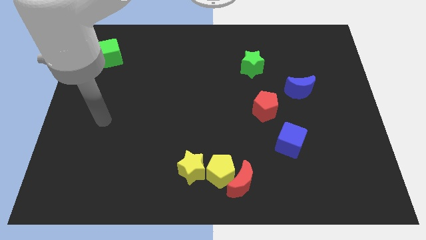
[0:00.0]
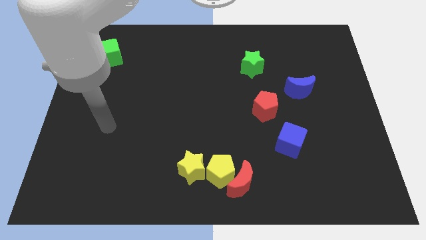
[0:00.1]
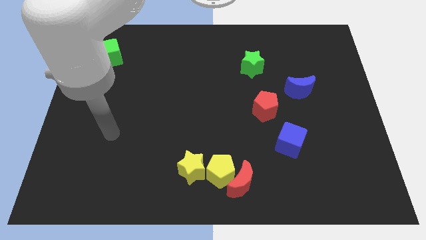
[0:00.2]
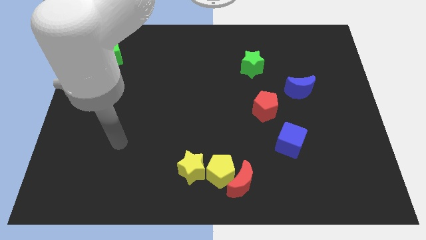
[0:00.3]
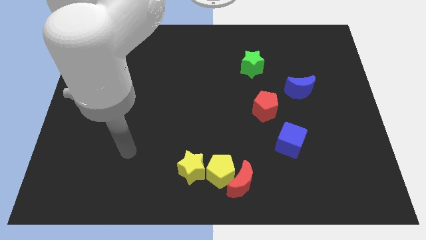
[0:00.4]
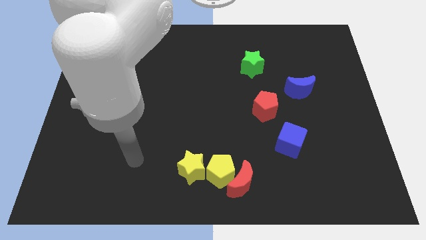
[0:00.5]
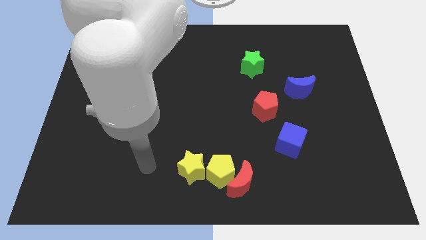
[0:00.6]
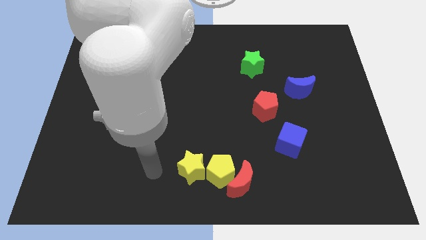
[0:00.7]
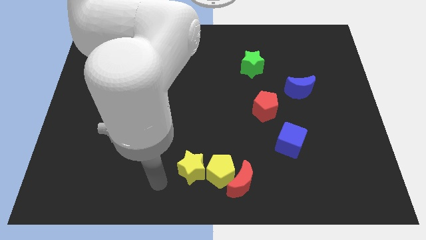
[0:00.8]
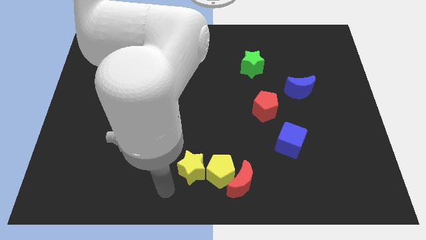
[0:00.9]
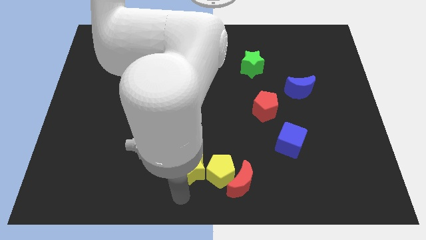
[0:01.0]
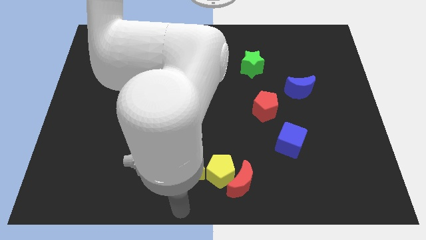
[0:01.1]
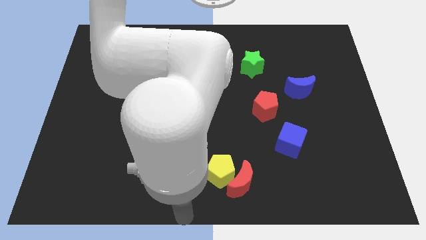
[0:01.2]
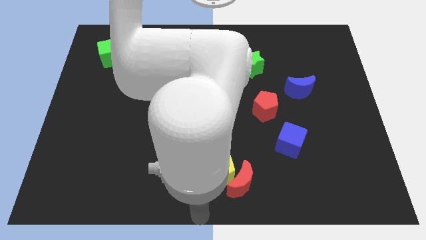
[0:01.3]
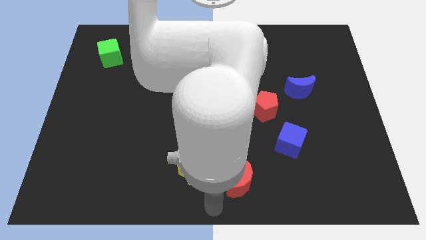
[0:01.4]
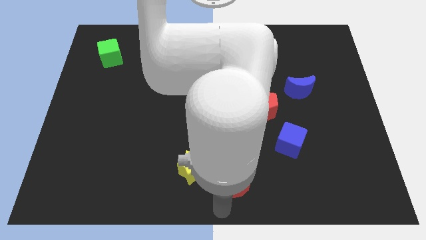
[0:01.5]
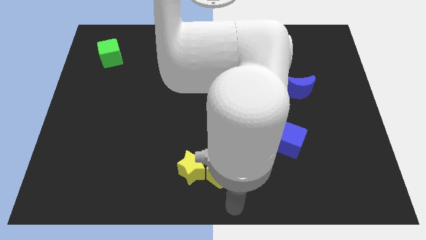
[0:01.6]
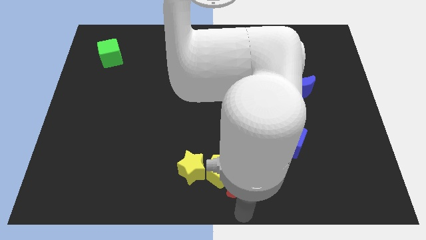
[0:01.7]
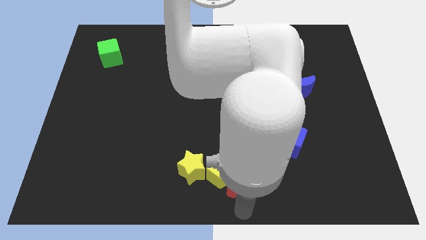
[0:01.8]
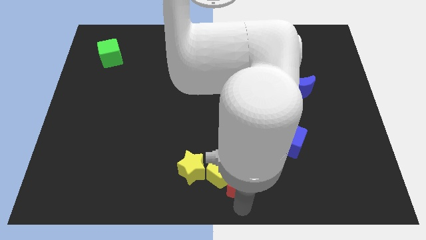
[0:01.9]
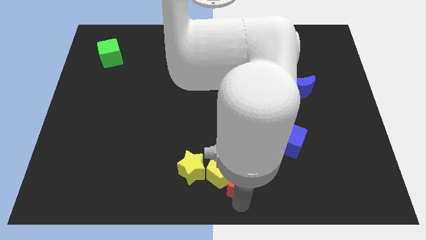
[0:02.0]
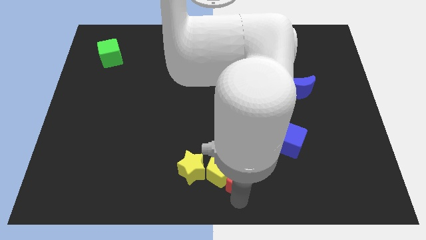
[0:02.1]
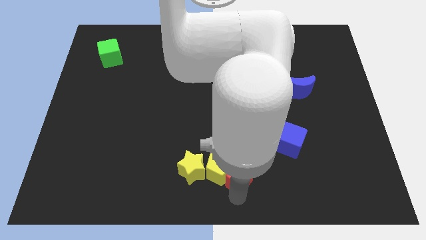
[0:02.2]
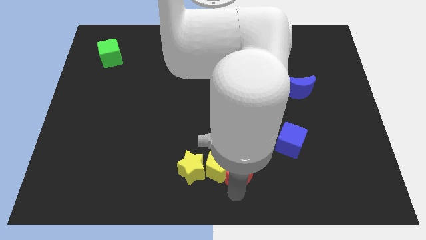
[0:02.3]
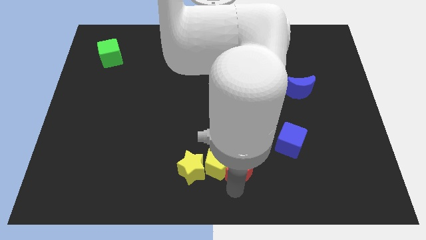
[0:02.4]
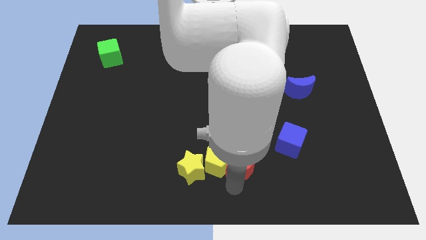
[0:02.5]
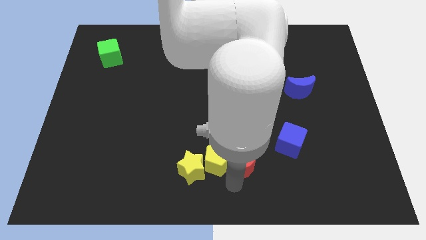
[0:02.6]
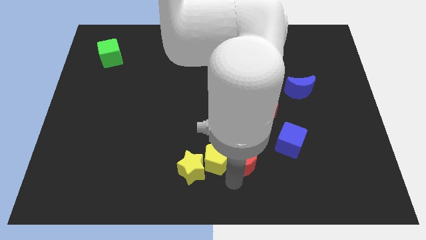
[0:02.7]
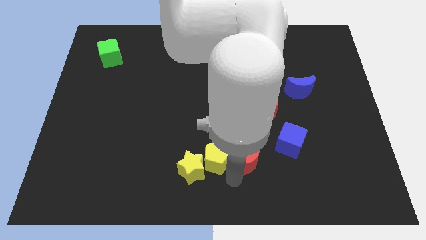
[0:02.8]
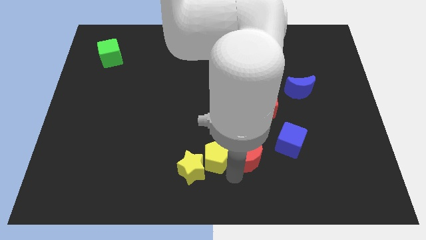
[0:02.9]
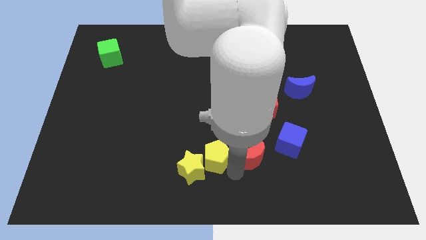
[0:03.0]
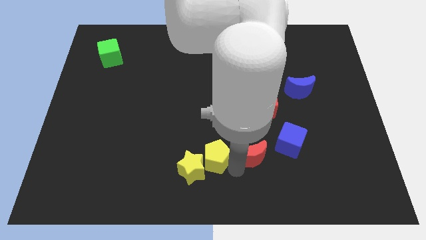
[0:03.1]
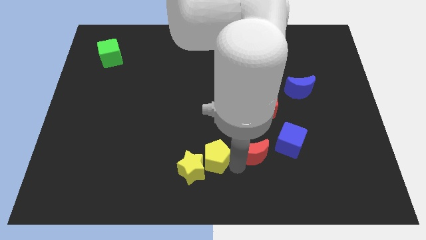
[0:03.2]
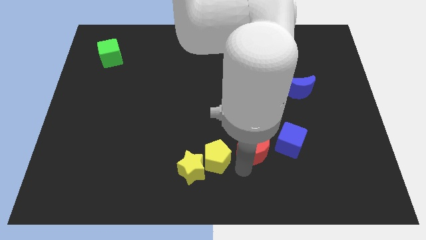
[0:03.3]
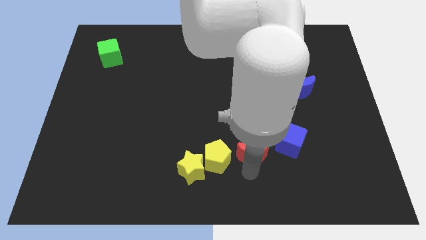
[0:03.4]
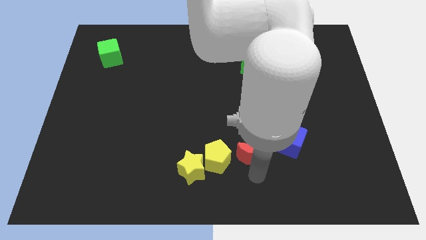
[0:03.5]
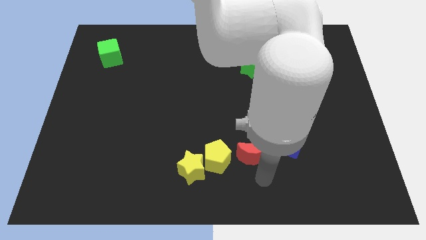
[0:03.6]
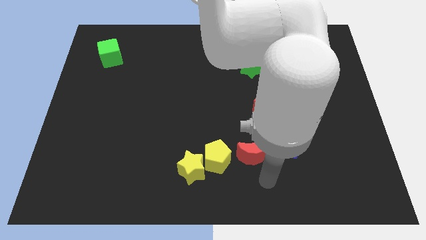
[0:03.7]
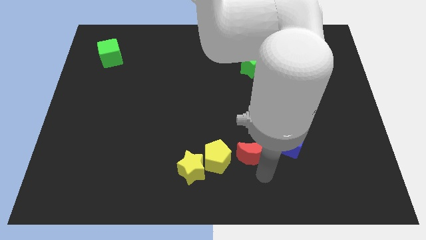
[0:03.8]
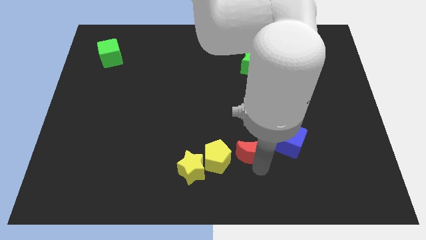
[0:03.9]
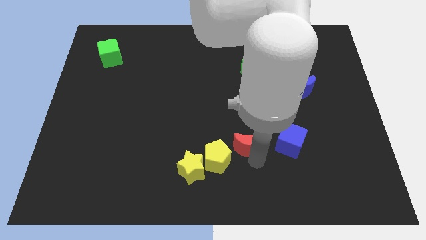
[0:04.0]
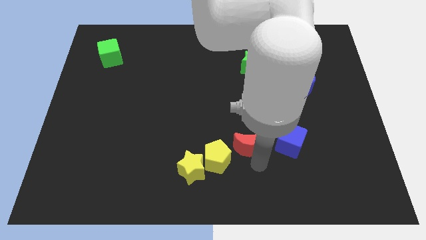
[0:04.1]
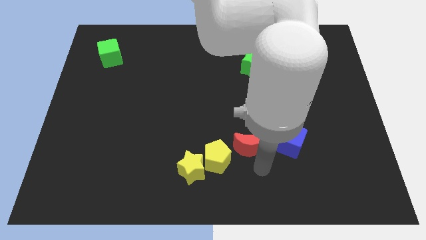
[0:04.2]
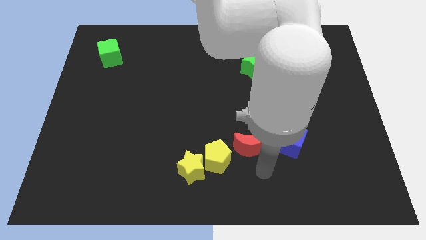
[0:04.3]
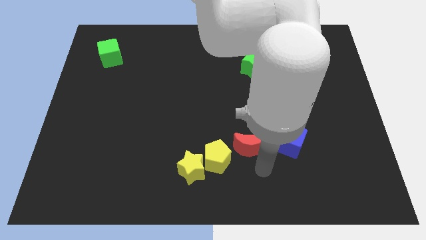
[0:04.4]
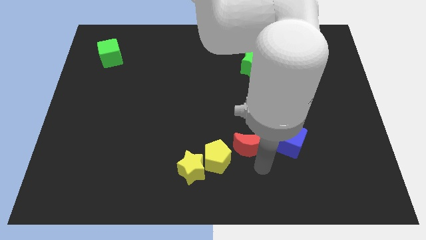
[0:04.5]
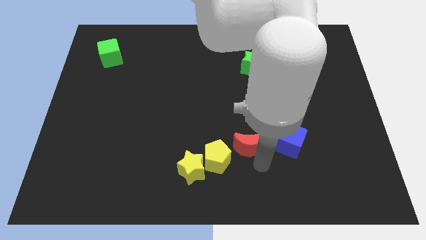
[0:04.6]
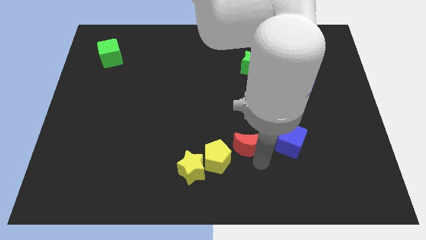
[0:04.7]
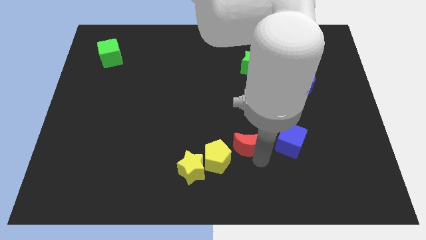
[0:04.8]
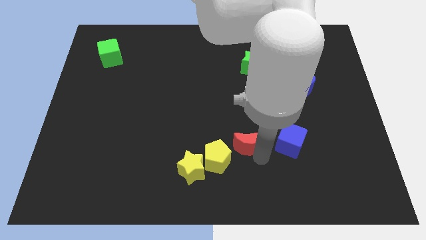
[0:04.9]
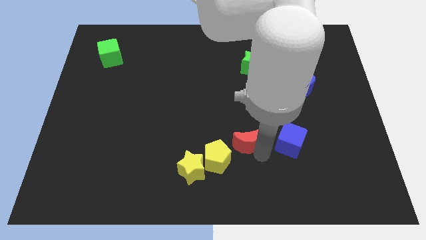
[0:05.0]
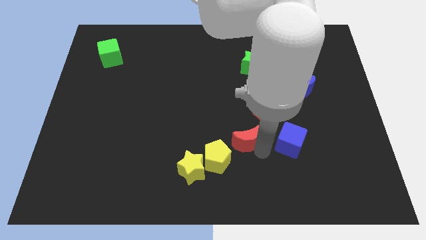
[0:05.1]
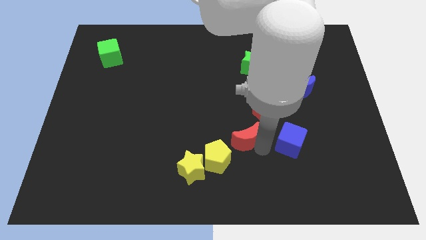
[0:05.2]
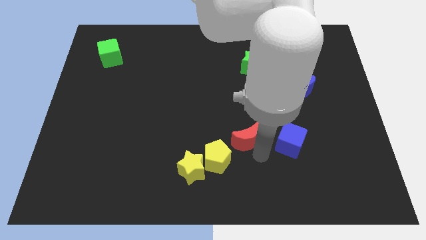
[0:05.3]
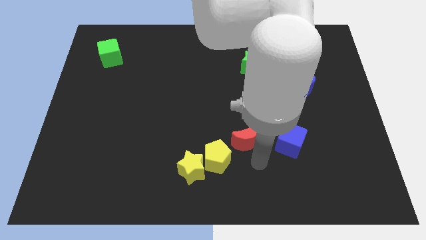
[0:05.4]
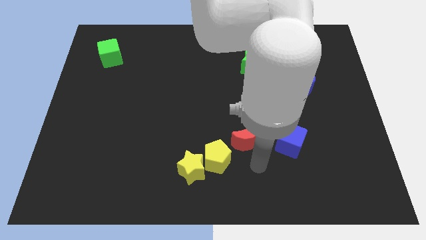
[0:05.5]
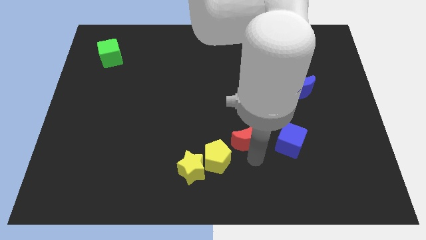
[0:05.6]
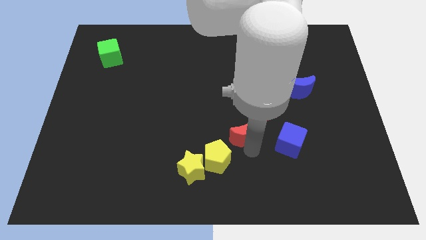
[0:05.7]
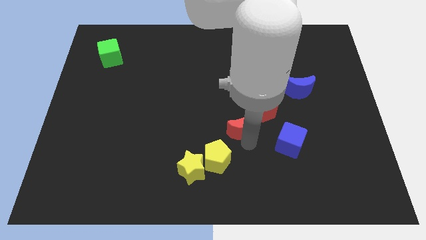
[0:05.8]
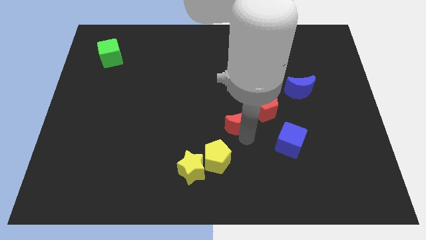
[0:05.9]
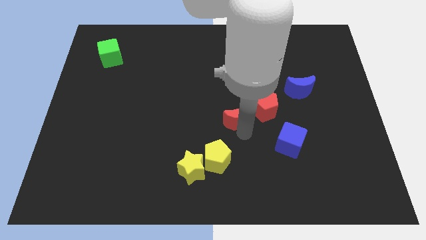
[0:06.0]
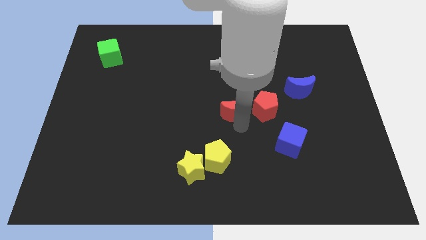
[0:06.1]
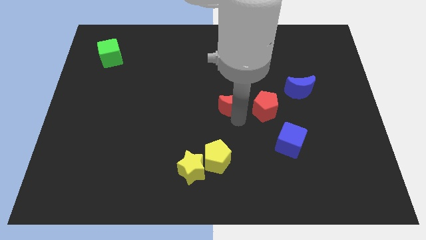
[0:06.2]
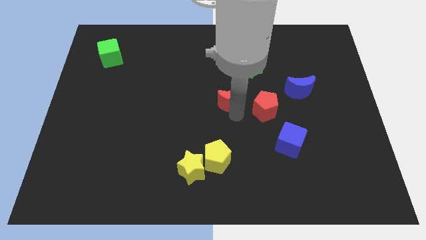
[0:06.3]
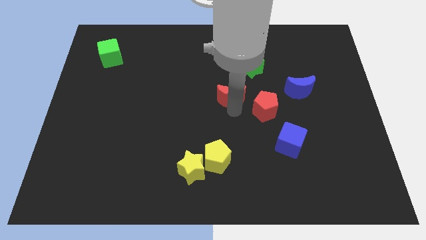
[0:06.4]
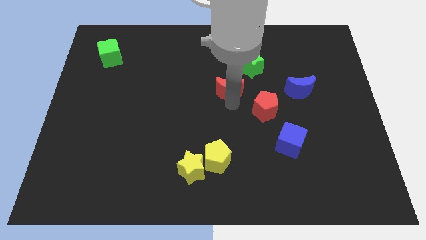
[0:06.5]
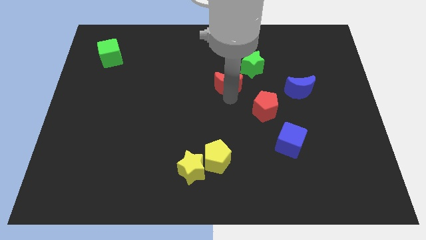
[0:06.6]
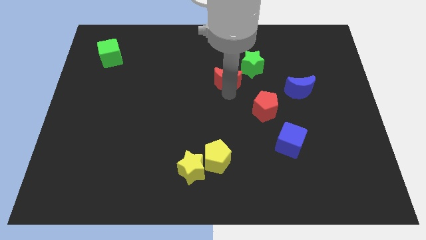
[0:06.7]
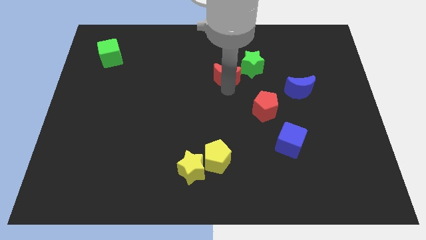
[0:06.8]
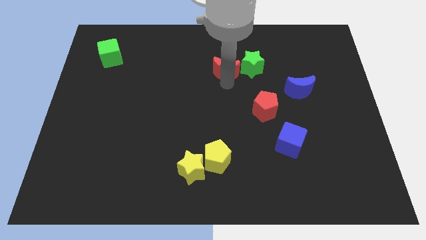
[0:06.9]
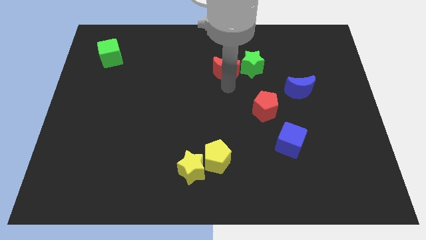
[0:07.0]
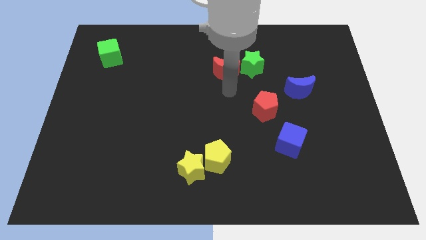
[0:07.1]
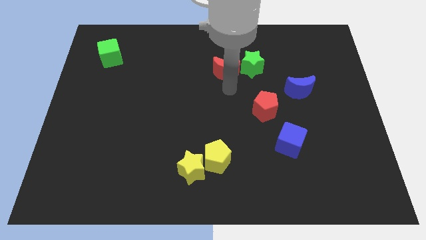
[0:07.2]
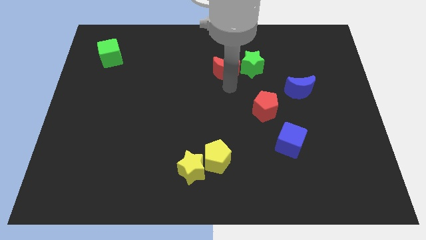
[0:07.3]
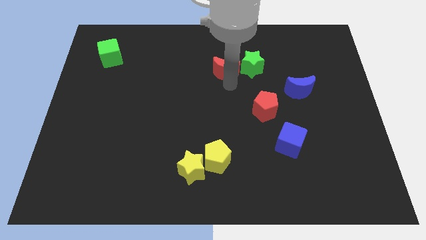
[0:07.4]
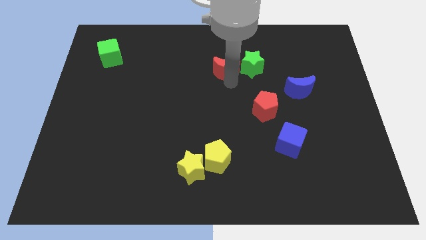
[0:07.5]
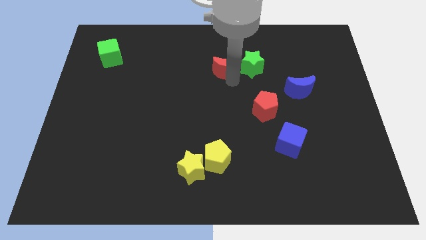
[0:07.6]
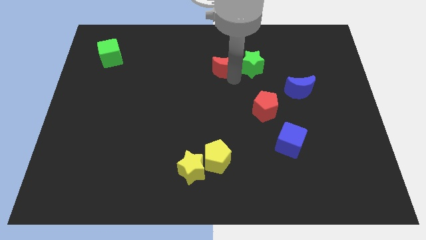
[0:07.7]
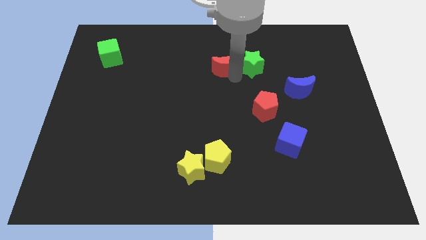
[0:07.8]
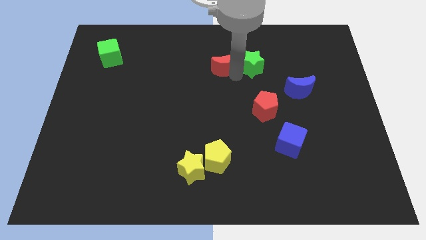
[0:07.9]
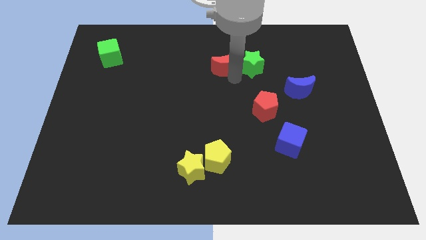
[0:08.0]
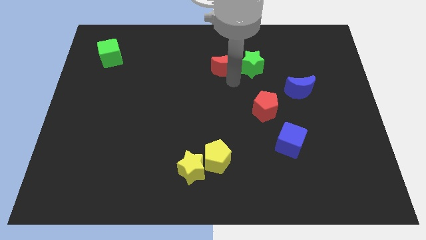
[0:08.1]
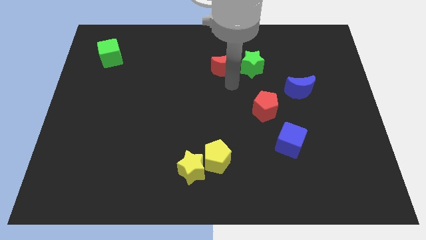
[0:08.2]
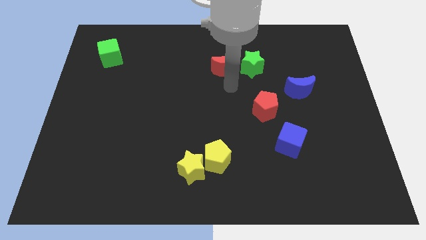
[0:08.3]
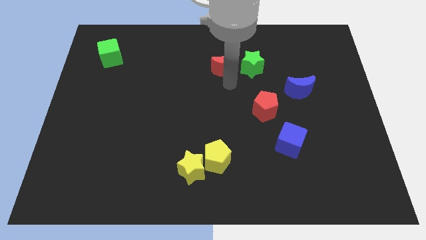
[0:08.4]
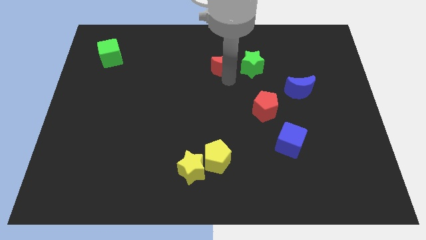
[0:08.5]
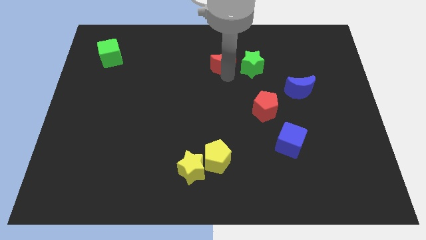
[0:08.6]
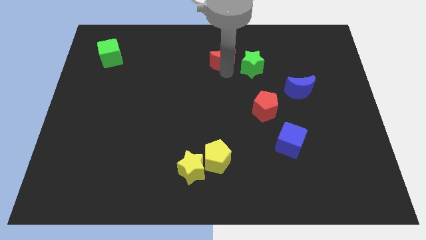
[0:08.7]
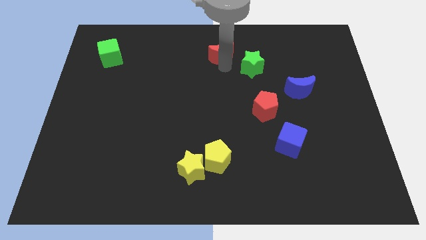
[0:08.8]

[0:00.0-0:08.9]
move the red moon to the top side
